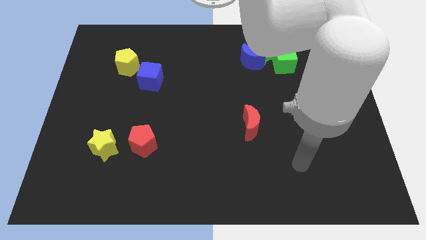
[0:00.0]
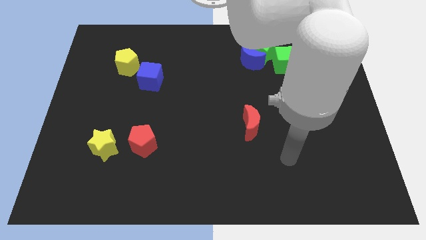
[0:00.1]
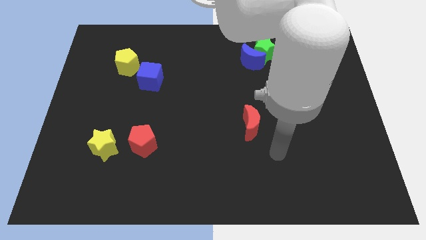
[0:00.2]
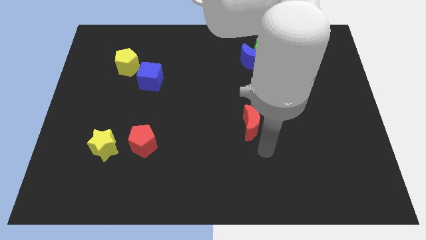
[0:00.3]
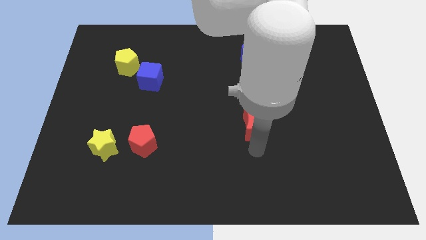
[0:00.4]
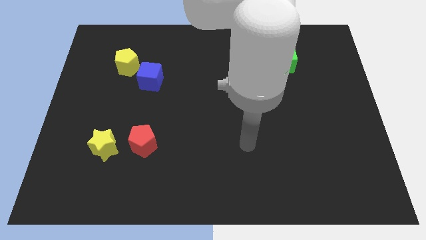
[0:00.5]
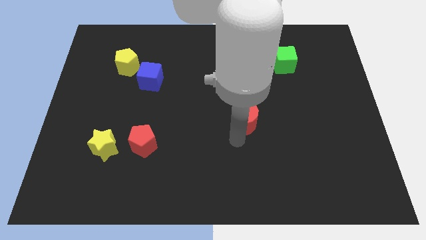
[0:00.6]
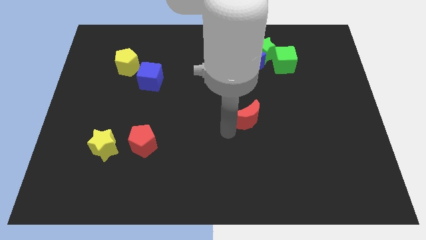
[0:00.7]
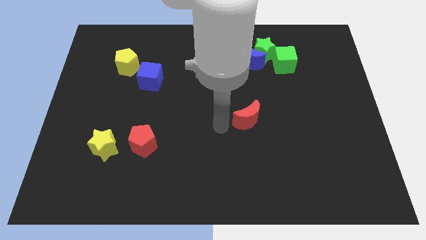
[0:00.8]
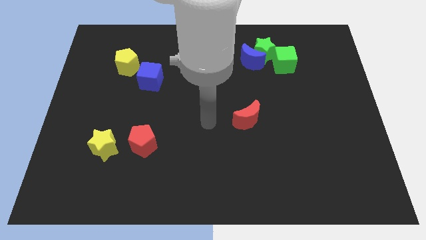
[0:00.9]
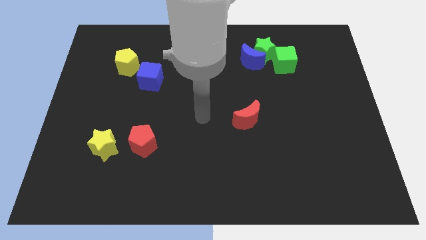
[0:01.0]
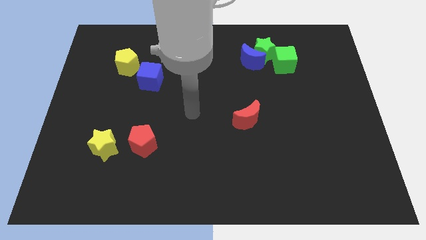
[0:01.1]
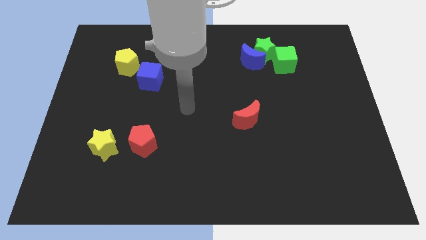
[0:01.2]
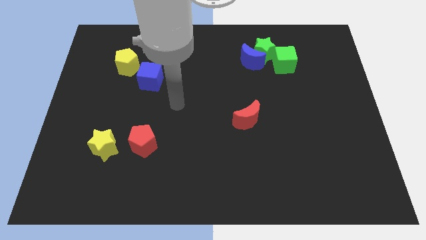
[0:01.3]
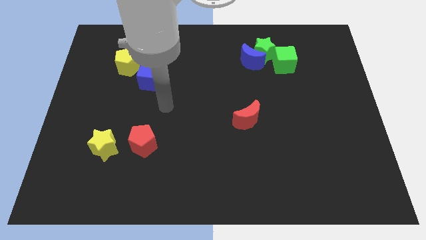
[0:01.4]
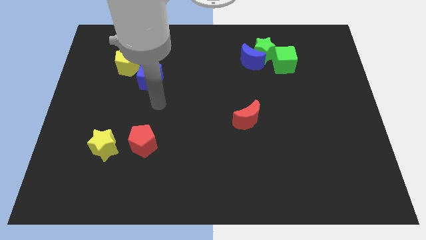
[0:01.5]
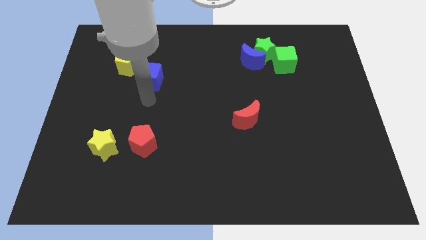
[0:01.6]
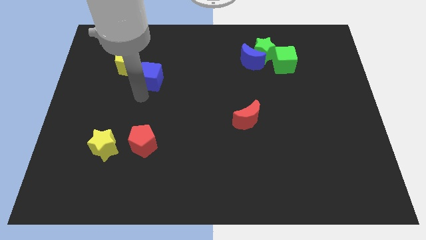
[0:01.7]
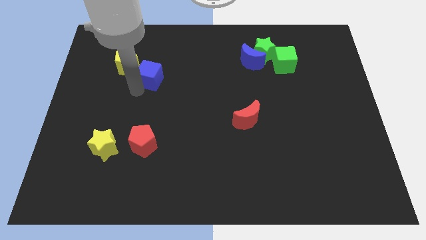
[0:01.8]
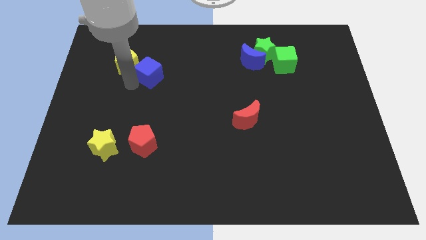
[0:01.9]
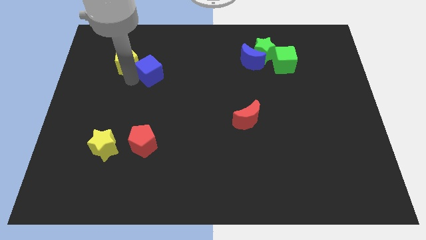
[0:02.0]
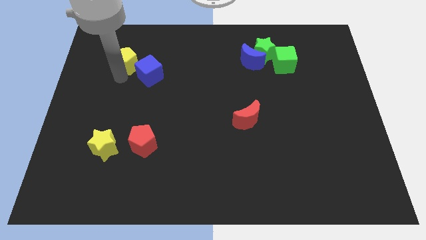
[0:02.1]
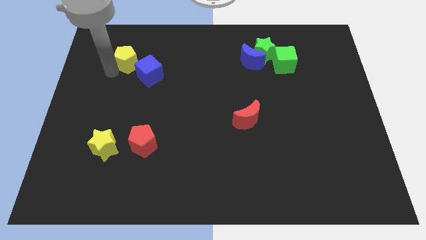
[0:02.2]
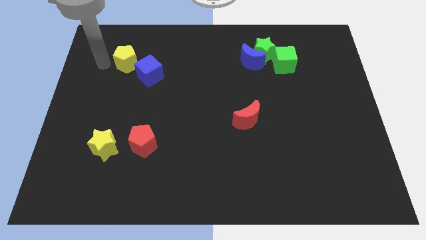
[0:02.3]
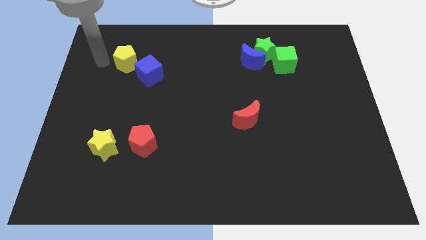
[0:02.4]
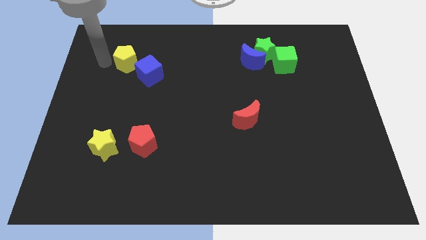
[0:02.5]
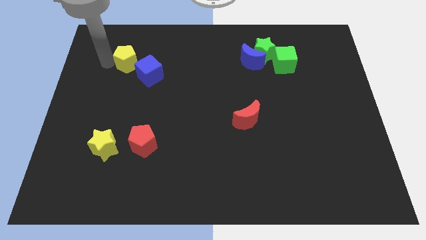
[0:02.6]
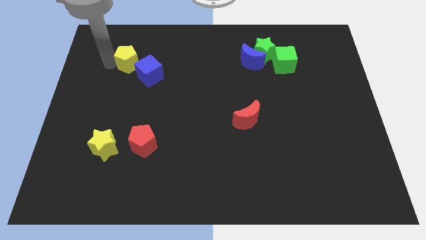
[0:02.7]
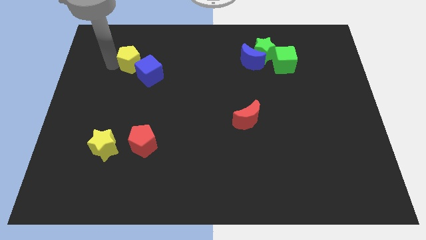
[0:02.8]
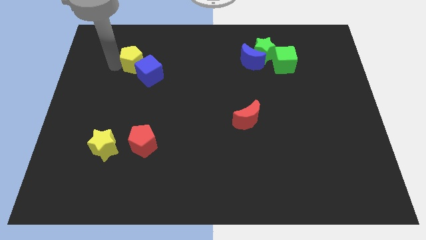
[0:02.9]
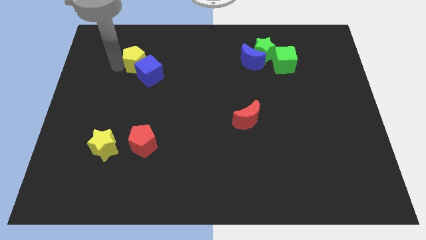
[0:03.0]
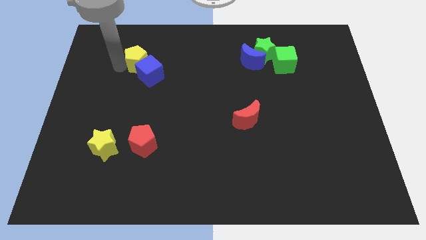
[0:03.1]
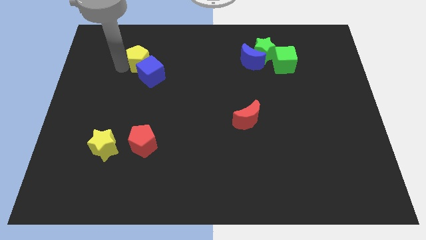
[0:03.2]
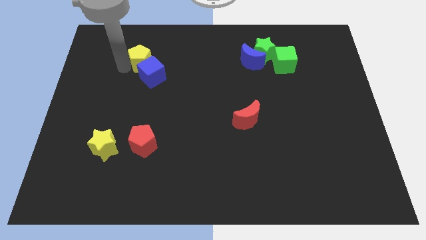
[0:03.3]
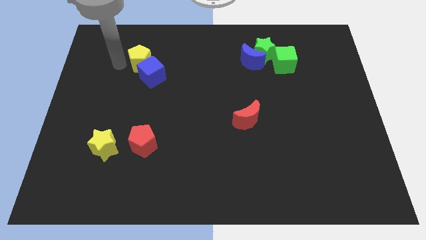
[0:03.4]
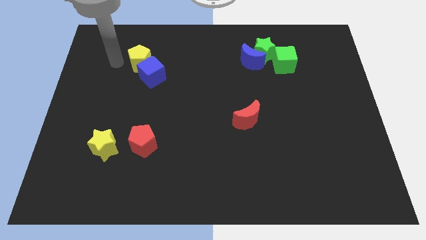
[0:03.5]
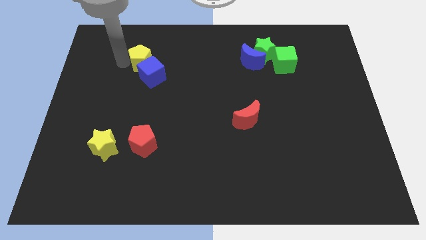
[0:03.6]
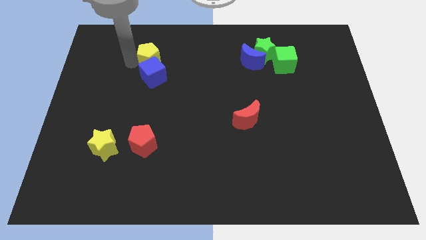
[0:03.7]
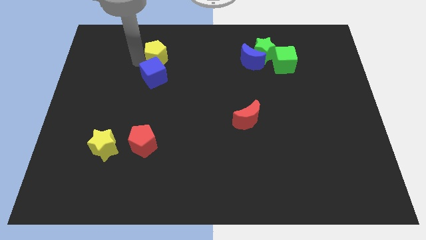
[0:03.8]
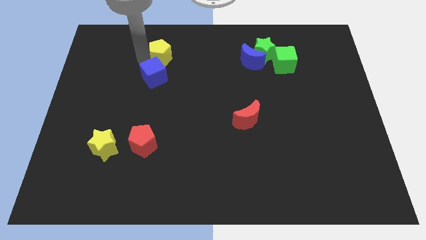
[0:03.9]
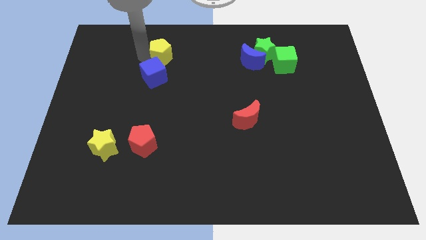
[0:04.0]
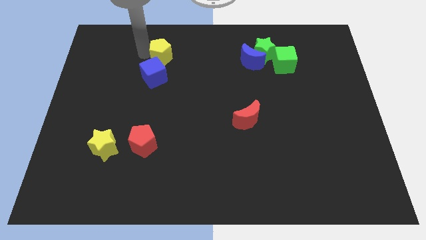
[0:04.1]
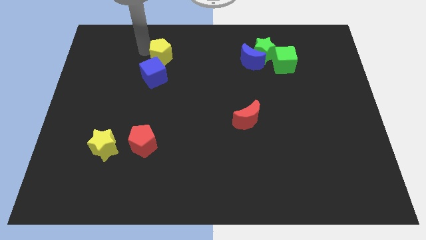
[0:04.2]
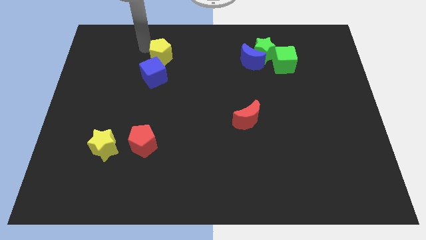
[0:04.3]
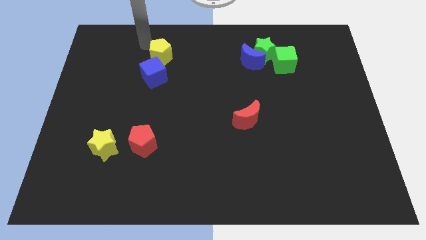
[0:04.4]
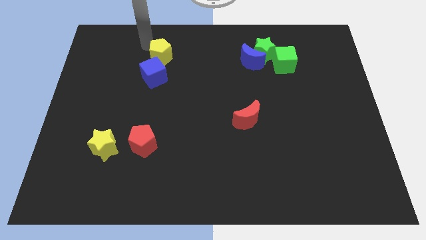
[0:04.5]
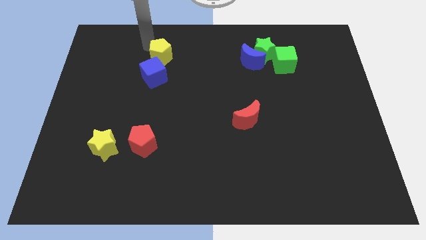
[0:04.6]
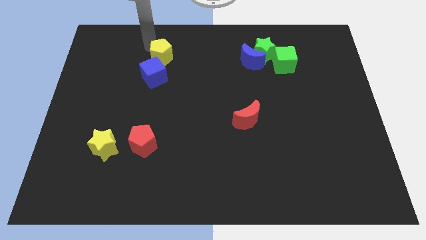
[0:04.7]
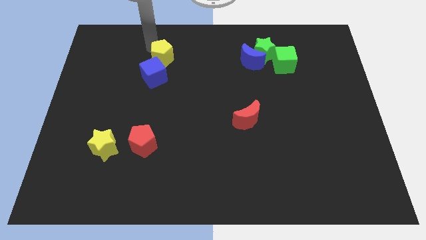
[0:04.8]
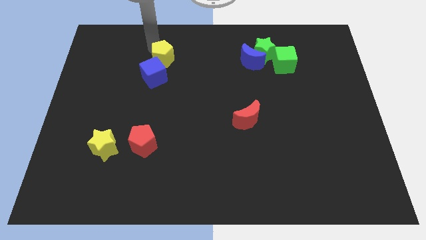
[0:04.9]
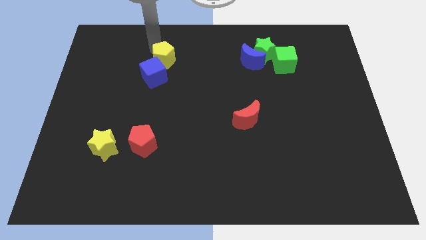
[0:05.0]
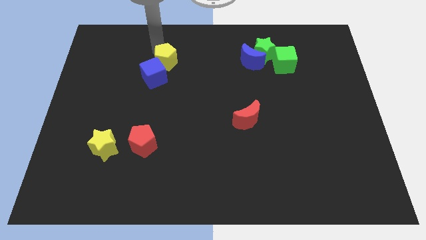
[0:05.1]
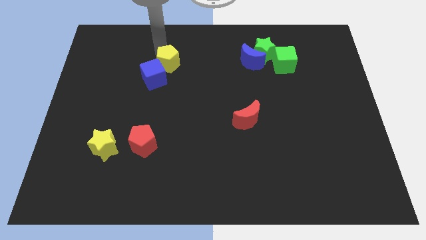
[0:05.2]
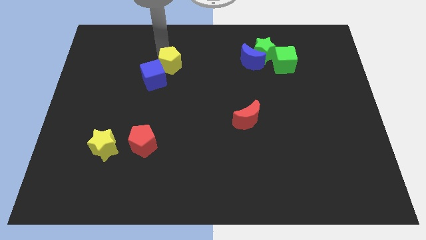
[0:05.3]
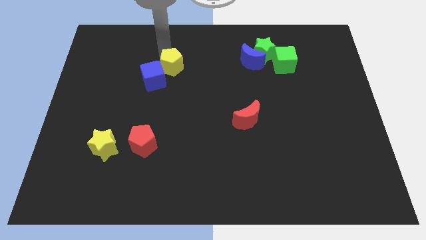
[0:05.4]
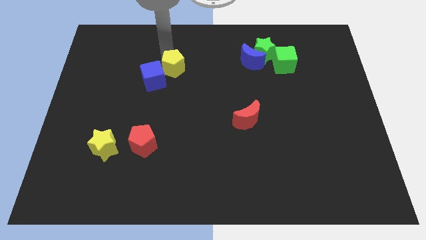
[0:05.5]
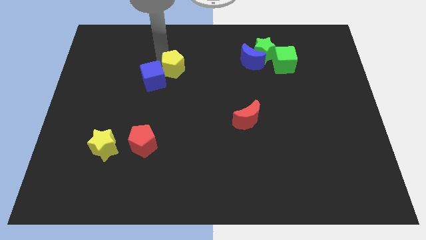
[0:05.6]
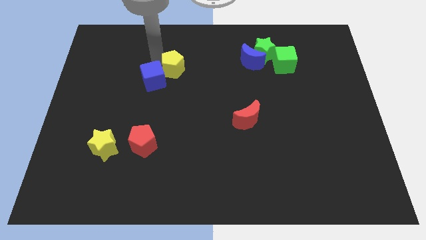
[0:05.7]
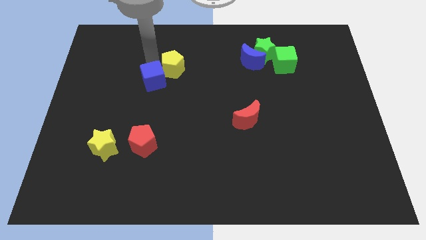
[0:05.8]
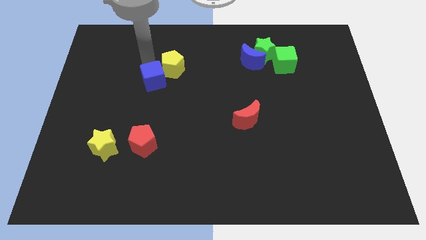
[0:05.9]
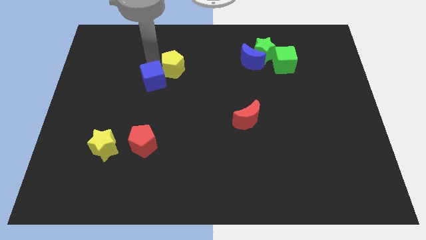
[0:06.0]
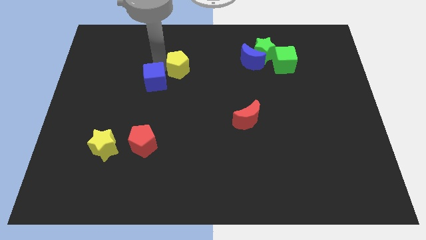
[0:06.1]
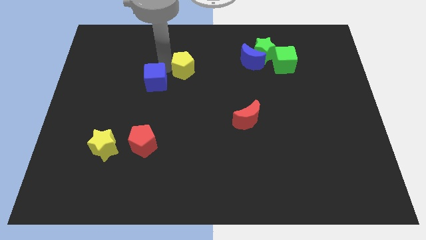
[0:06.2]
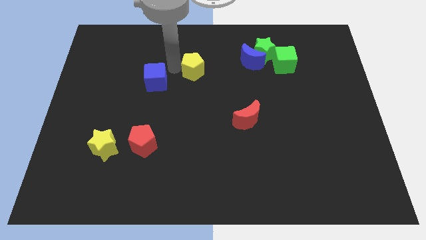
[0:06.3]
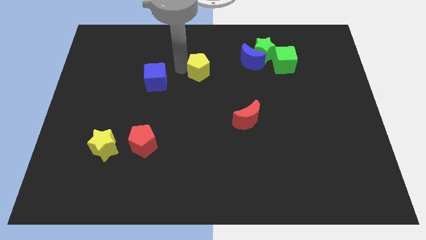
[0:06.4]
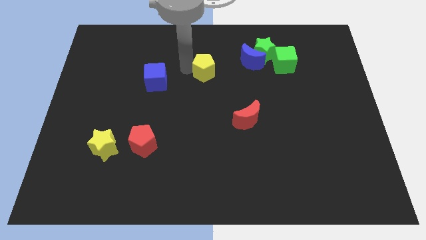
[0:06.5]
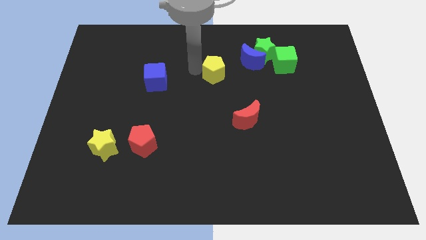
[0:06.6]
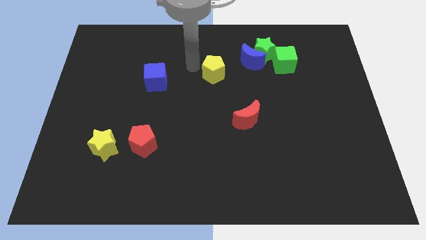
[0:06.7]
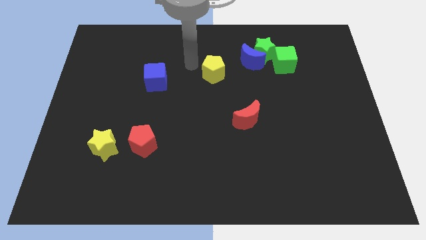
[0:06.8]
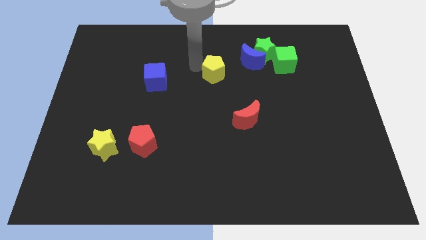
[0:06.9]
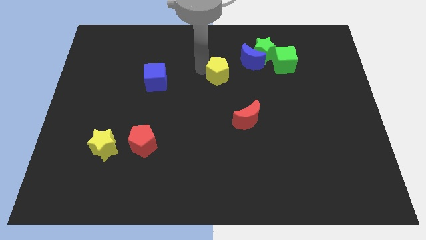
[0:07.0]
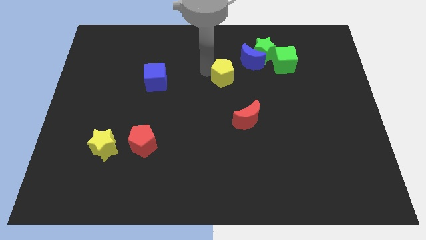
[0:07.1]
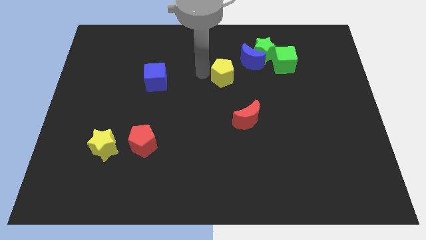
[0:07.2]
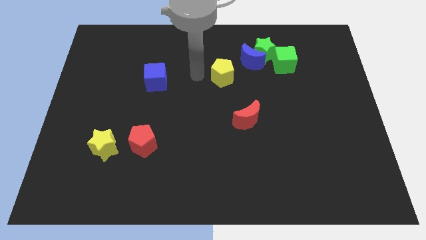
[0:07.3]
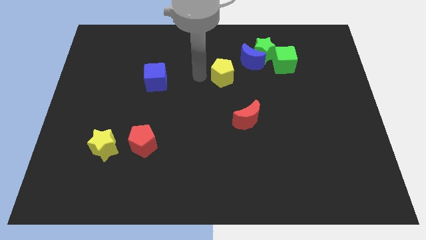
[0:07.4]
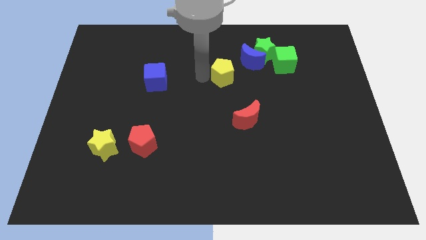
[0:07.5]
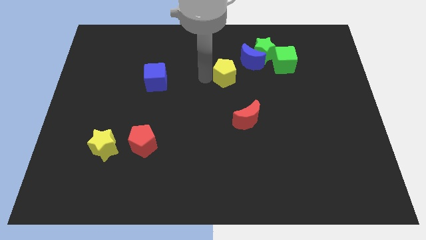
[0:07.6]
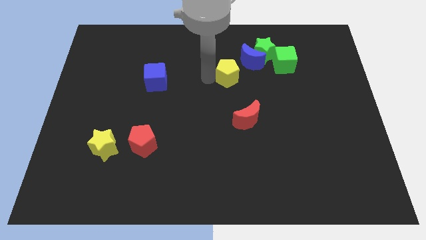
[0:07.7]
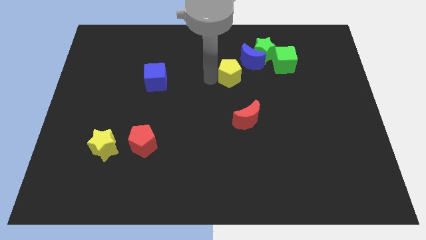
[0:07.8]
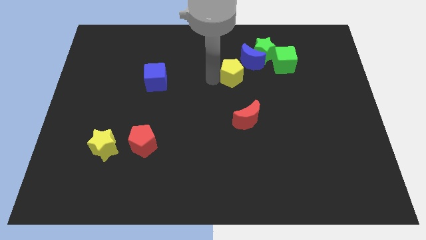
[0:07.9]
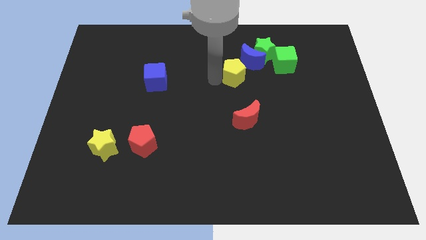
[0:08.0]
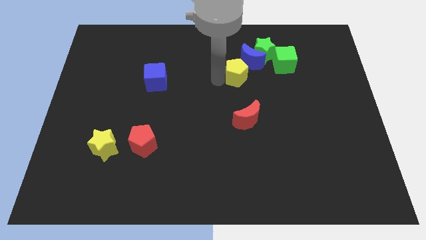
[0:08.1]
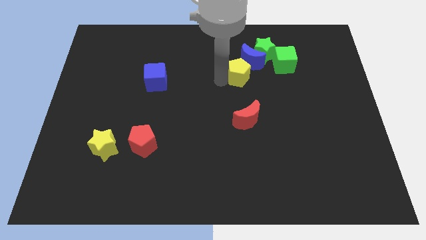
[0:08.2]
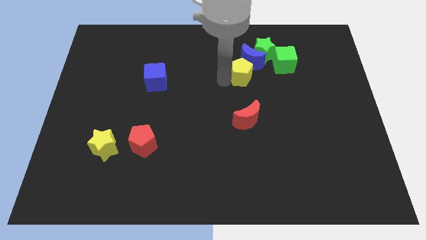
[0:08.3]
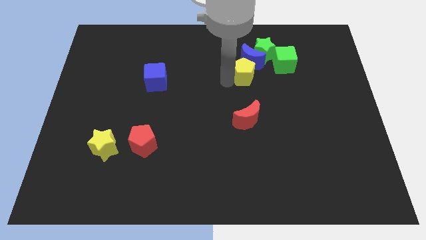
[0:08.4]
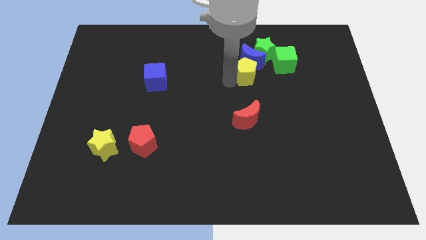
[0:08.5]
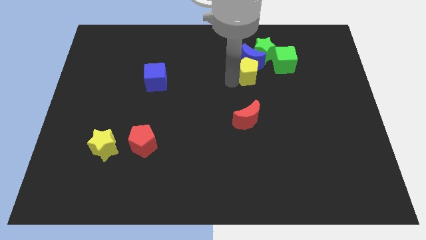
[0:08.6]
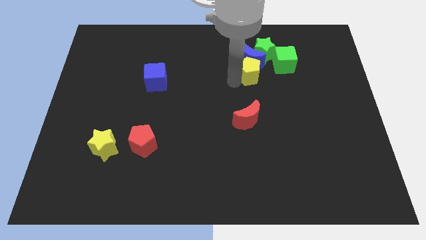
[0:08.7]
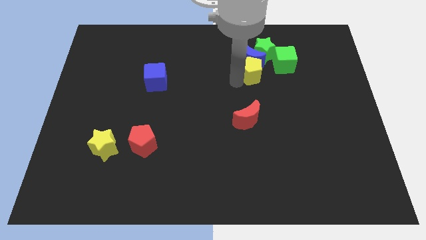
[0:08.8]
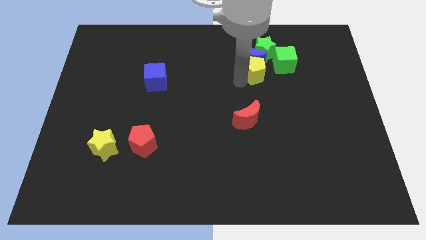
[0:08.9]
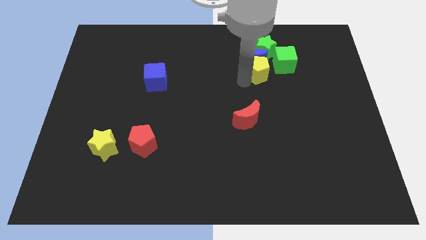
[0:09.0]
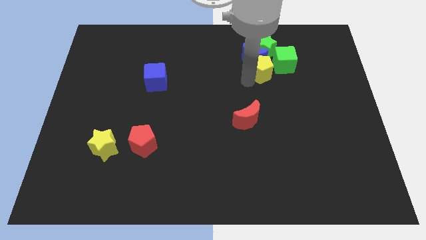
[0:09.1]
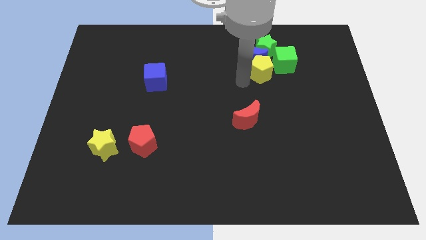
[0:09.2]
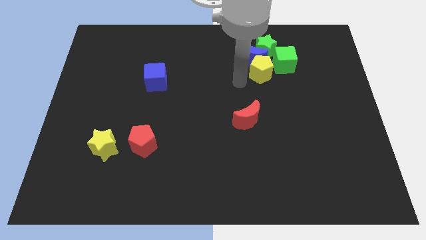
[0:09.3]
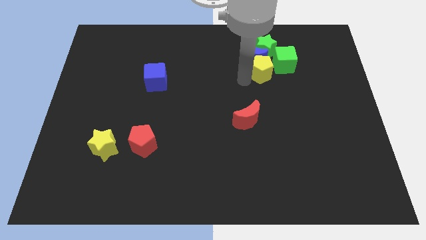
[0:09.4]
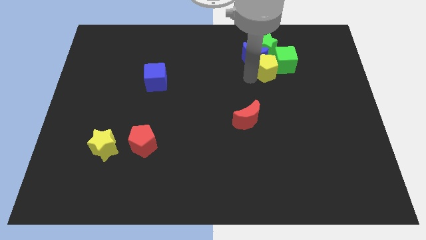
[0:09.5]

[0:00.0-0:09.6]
push the yellow pentagon next to the green cube
